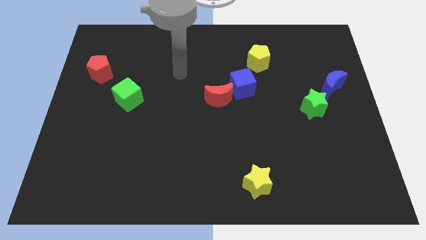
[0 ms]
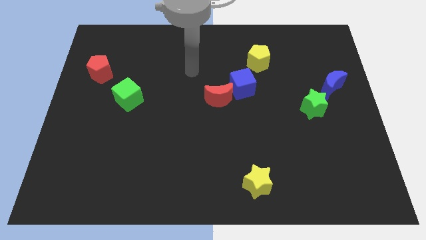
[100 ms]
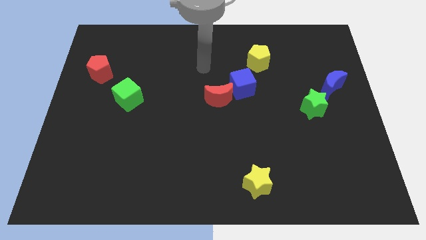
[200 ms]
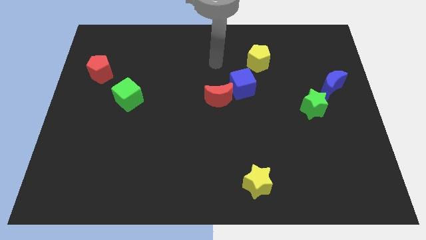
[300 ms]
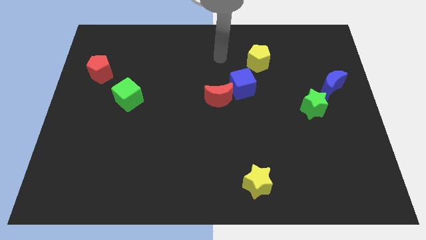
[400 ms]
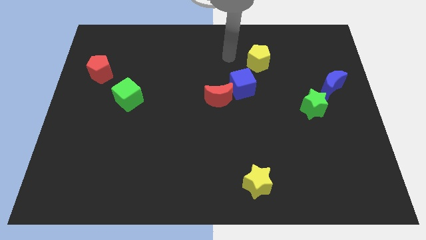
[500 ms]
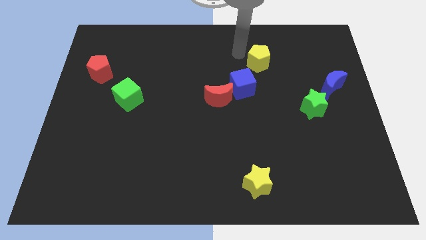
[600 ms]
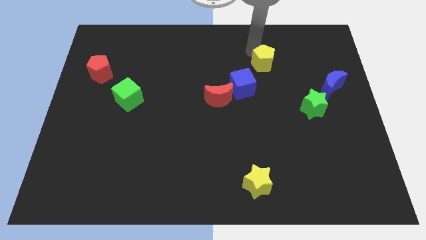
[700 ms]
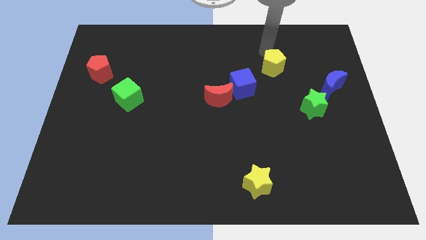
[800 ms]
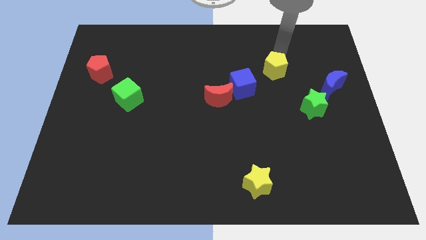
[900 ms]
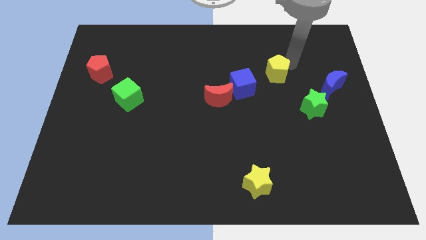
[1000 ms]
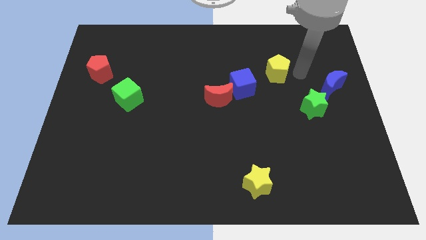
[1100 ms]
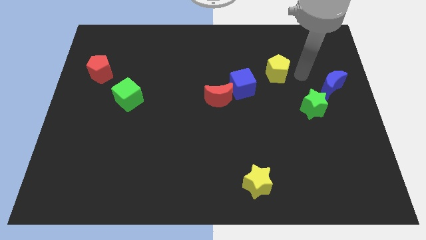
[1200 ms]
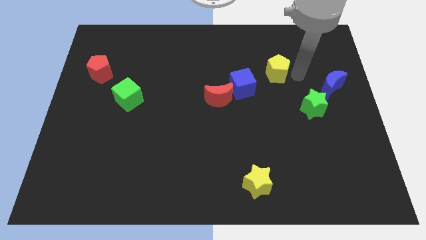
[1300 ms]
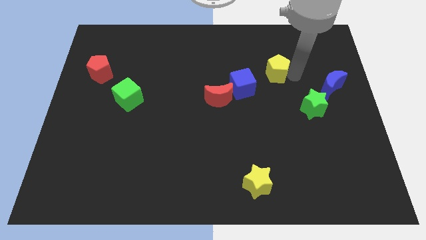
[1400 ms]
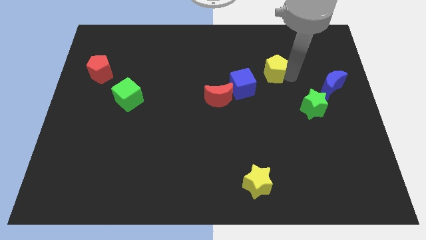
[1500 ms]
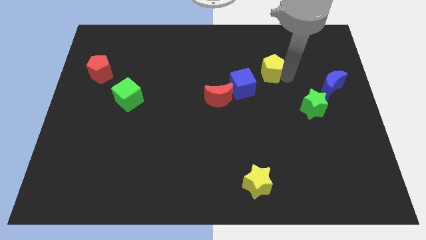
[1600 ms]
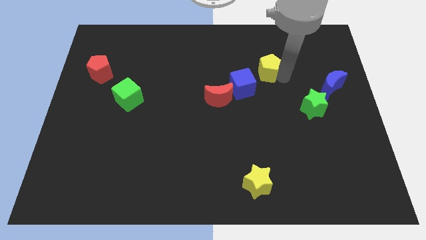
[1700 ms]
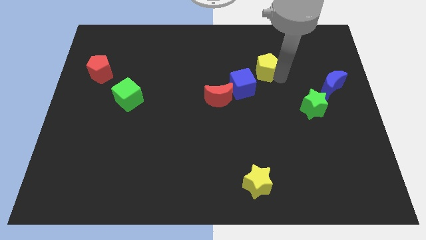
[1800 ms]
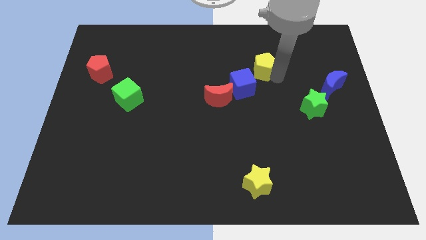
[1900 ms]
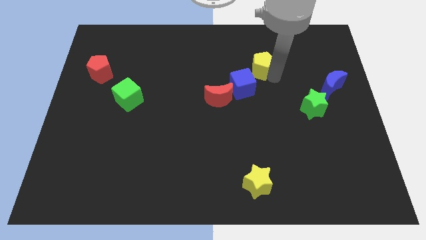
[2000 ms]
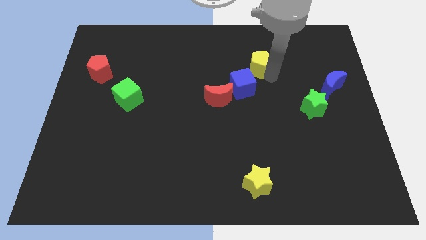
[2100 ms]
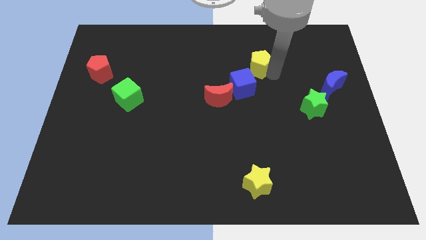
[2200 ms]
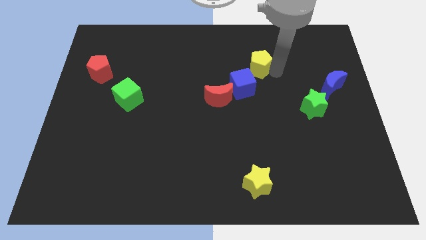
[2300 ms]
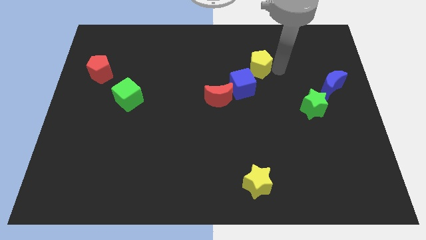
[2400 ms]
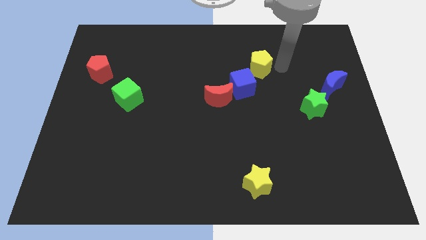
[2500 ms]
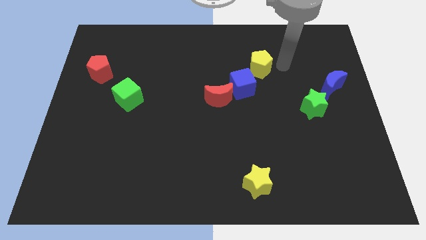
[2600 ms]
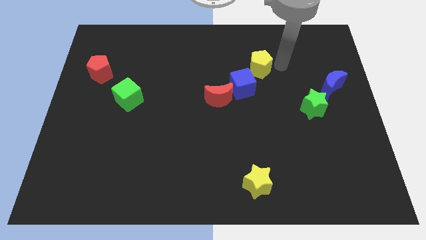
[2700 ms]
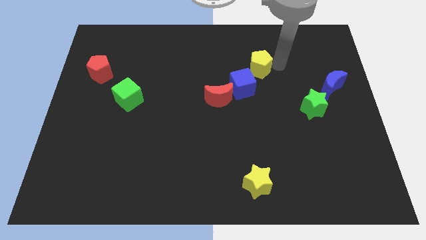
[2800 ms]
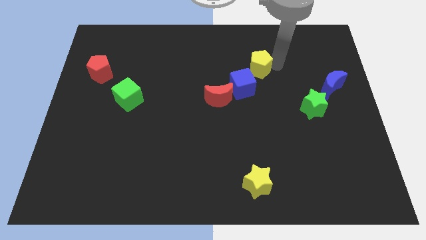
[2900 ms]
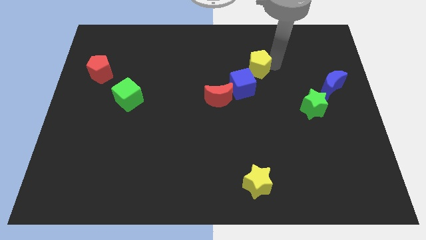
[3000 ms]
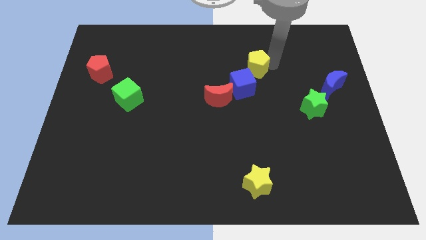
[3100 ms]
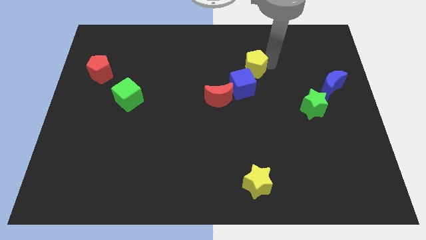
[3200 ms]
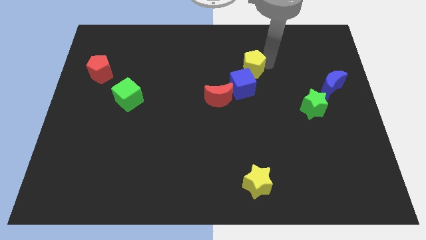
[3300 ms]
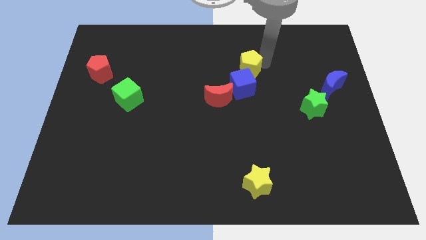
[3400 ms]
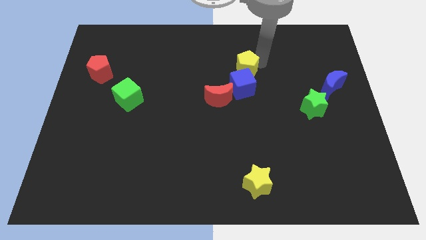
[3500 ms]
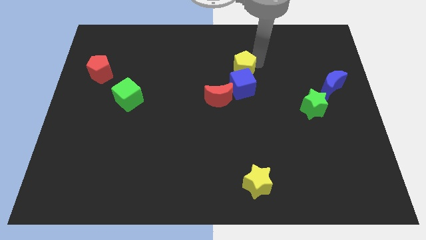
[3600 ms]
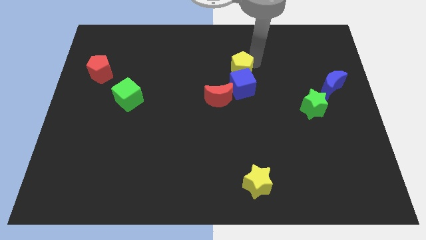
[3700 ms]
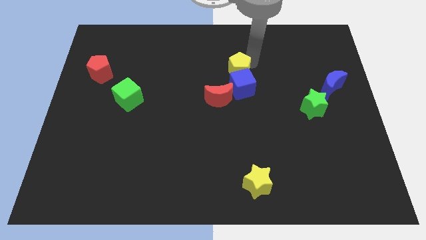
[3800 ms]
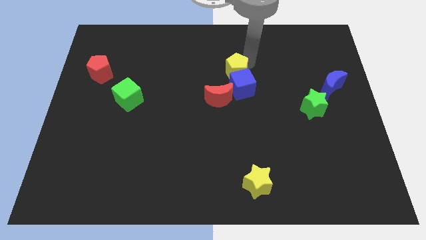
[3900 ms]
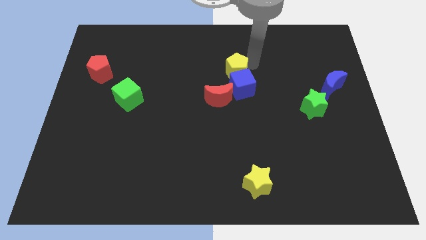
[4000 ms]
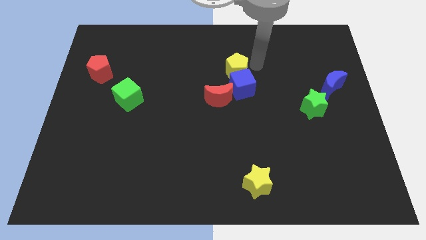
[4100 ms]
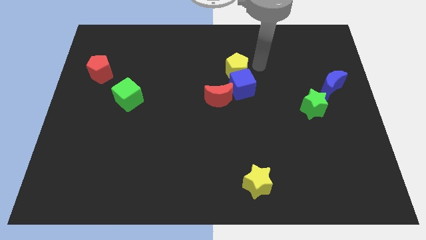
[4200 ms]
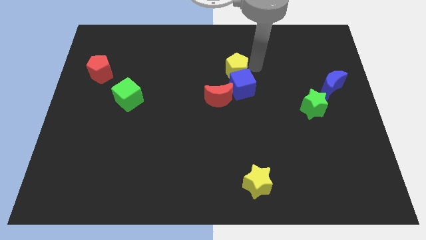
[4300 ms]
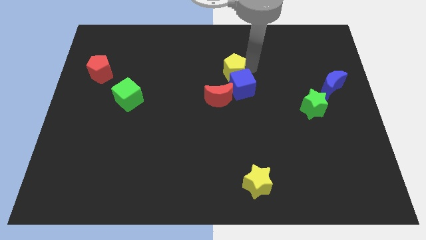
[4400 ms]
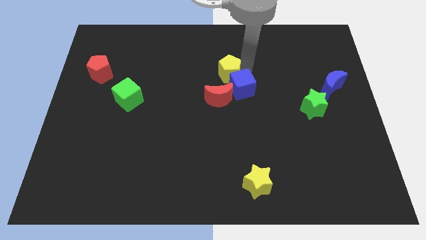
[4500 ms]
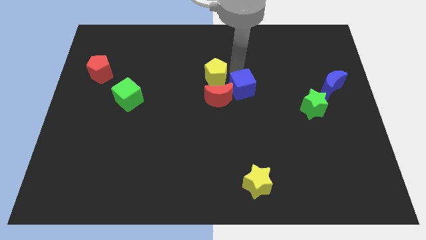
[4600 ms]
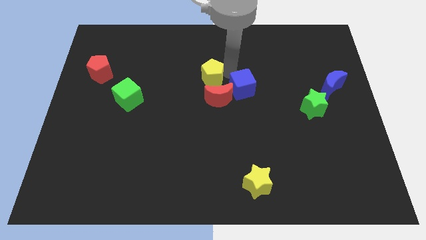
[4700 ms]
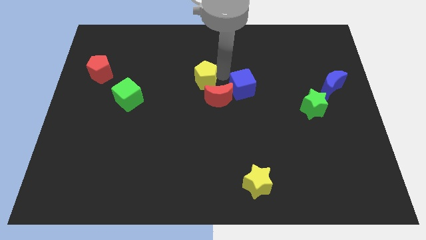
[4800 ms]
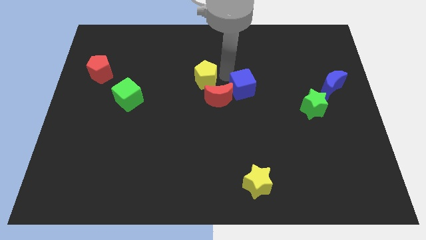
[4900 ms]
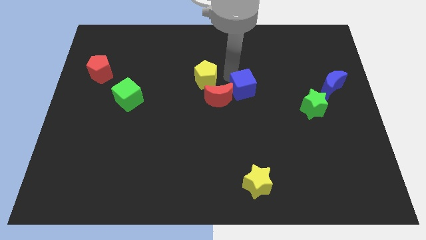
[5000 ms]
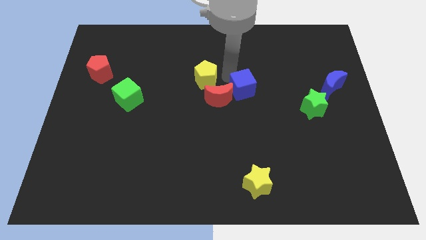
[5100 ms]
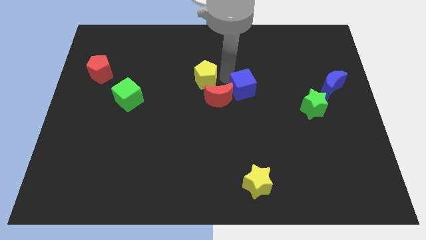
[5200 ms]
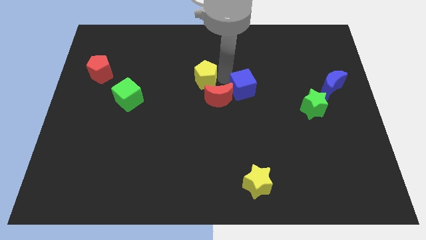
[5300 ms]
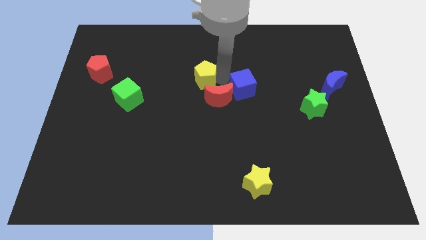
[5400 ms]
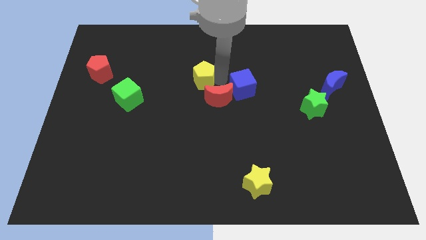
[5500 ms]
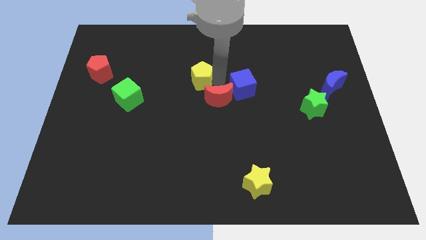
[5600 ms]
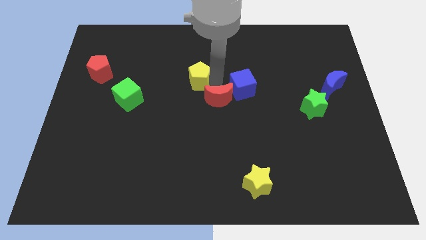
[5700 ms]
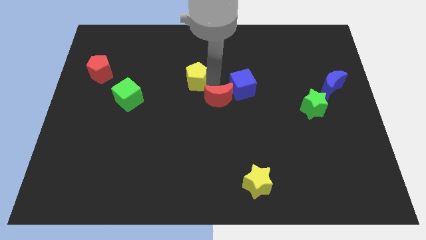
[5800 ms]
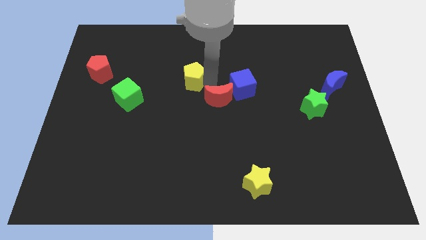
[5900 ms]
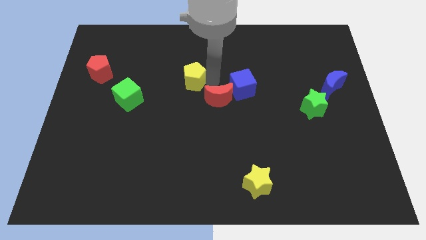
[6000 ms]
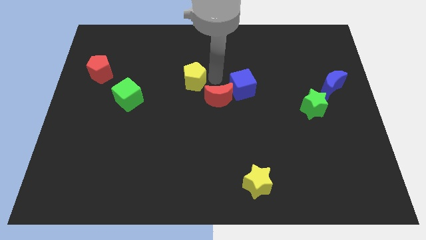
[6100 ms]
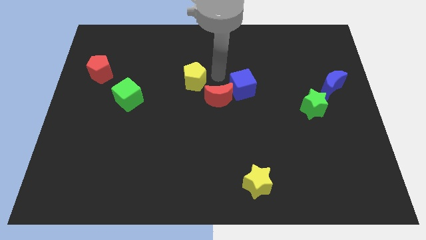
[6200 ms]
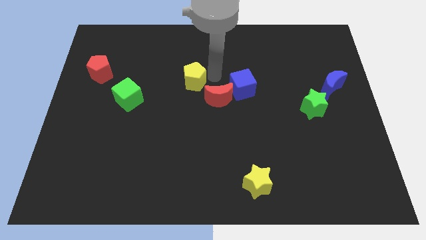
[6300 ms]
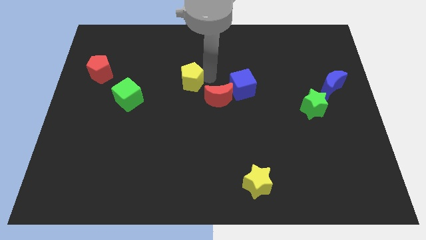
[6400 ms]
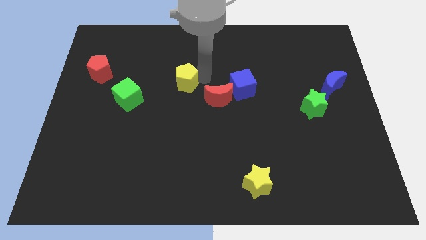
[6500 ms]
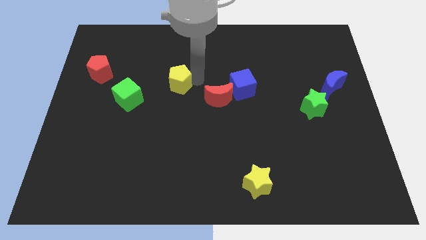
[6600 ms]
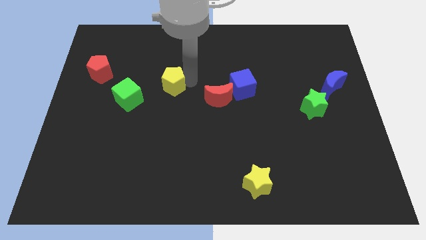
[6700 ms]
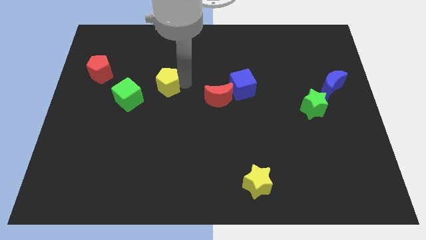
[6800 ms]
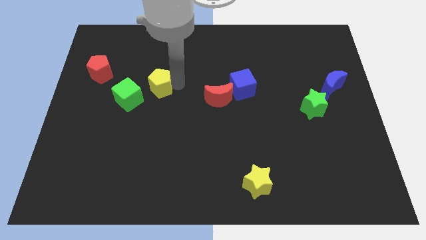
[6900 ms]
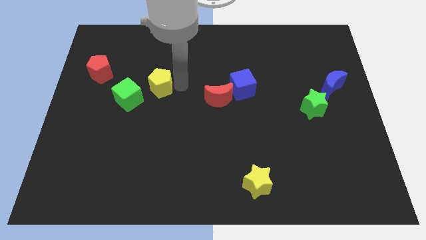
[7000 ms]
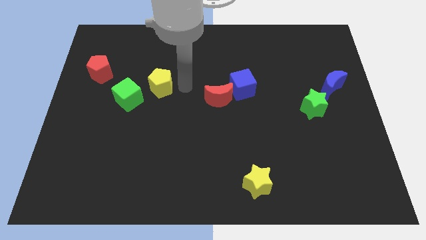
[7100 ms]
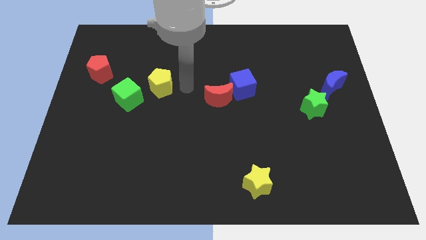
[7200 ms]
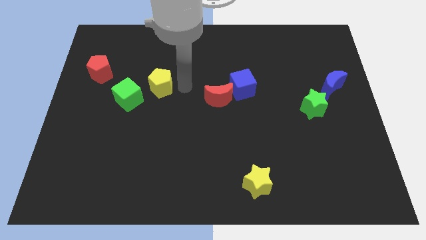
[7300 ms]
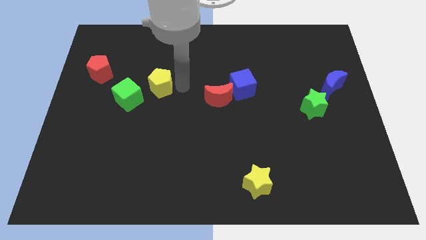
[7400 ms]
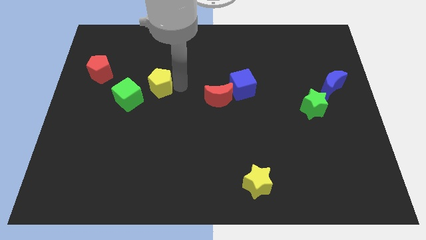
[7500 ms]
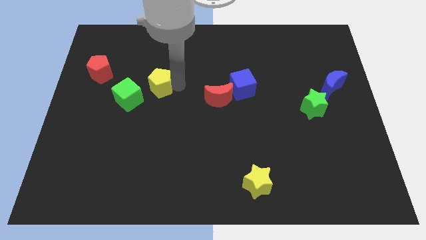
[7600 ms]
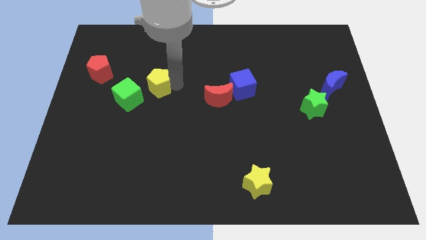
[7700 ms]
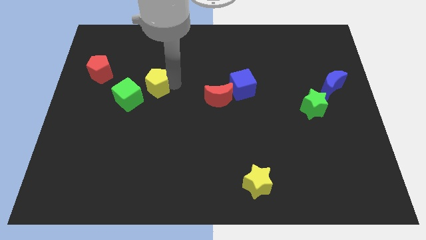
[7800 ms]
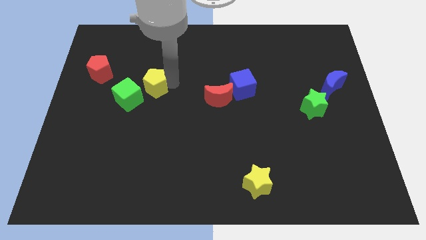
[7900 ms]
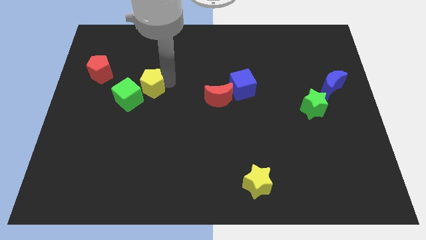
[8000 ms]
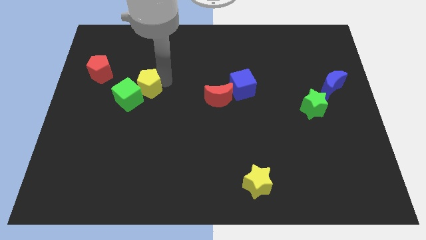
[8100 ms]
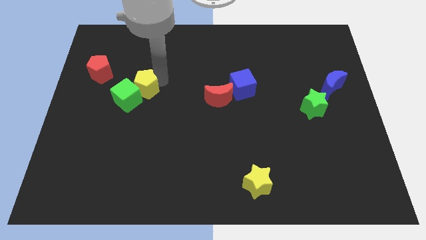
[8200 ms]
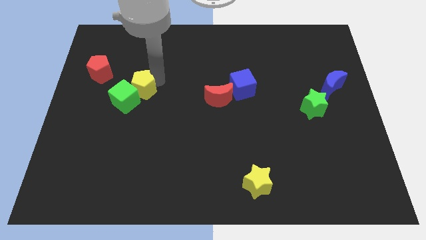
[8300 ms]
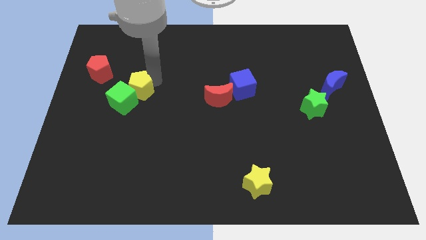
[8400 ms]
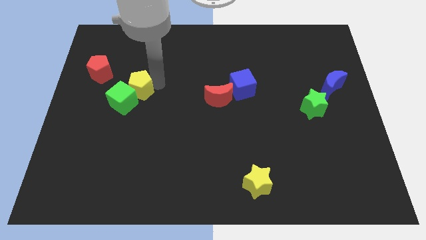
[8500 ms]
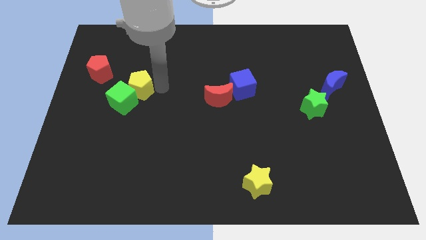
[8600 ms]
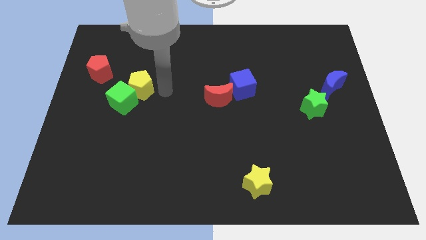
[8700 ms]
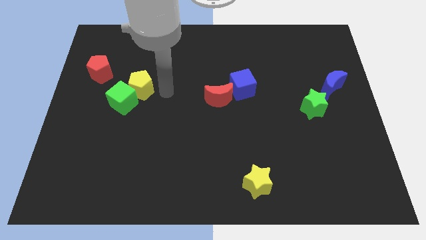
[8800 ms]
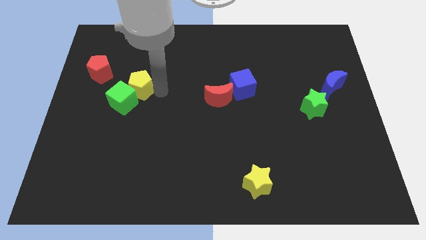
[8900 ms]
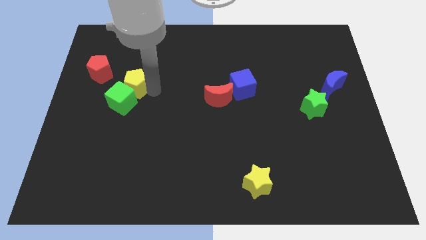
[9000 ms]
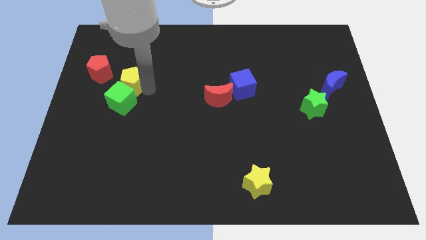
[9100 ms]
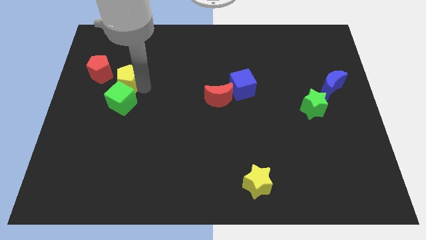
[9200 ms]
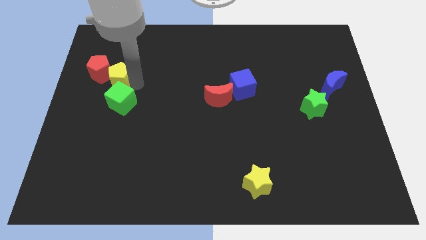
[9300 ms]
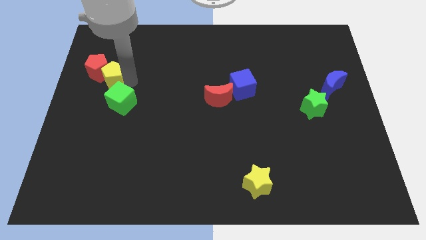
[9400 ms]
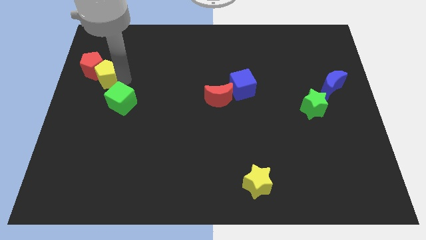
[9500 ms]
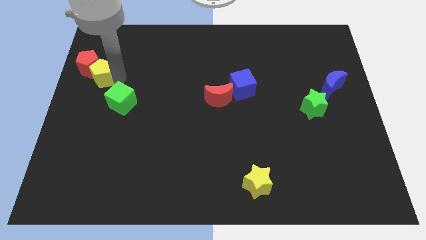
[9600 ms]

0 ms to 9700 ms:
move the yellow pentagon to the center left
